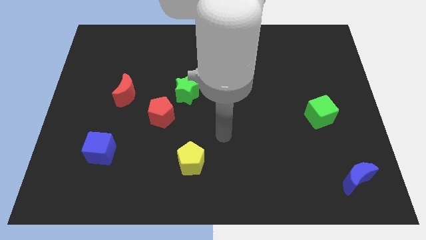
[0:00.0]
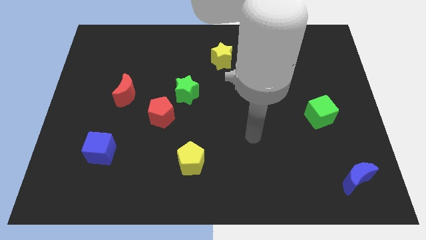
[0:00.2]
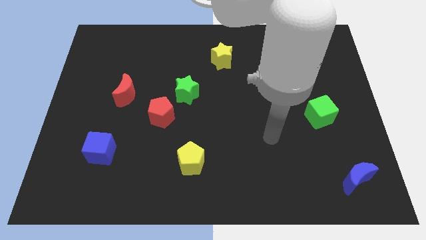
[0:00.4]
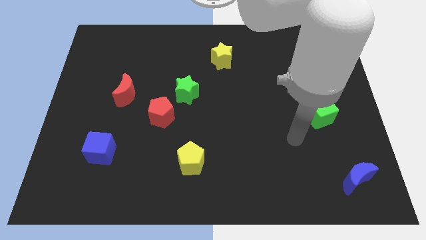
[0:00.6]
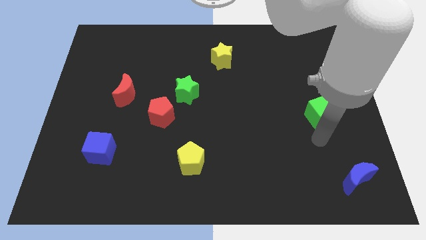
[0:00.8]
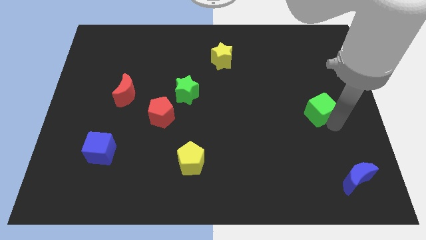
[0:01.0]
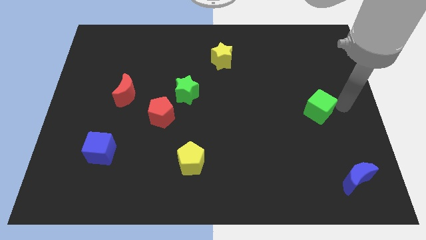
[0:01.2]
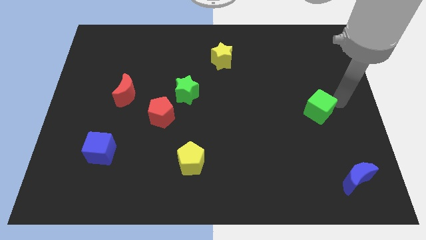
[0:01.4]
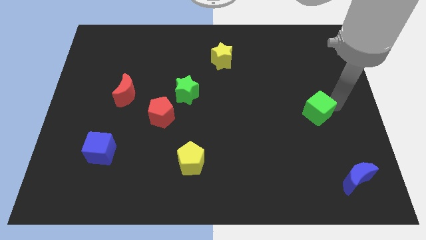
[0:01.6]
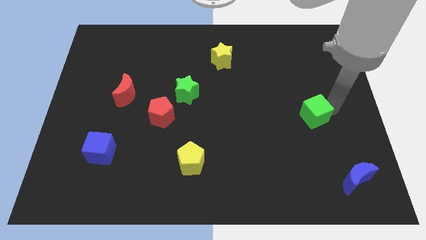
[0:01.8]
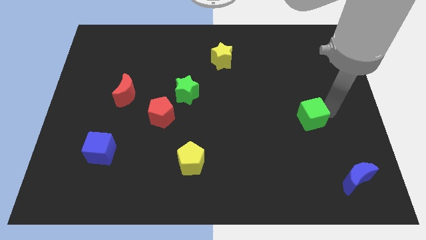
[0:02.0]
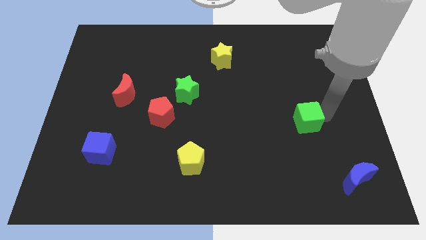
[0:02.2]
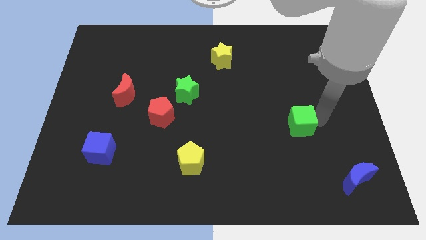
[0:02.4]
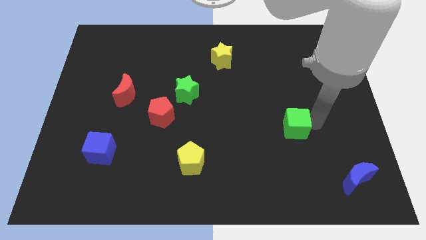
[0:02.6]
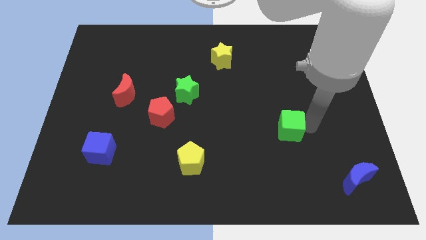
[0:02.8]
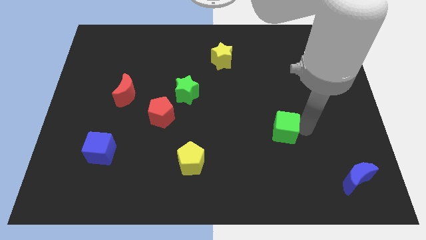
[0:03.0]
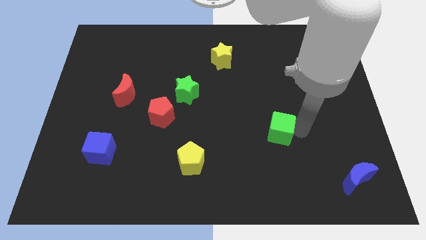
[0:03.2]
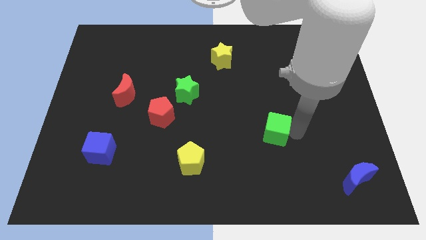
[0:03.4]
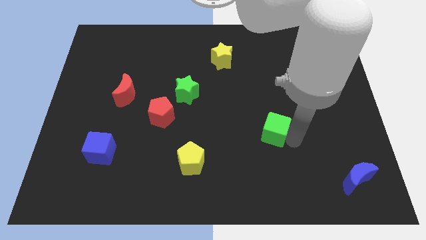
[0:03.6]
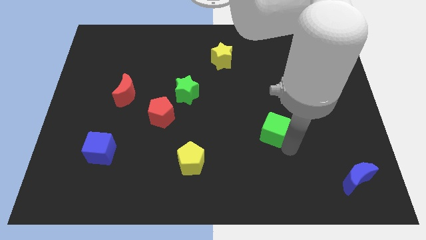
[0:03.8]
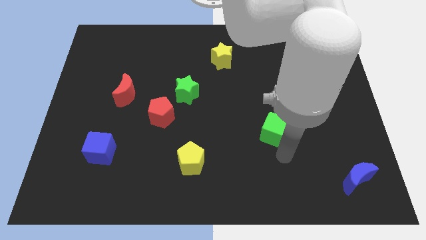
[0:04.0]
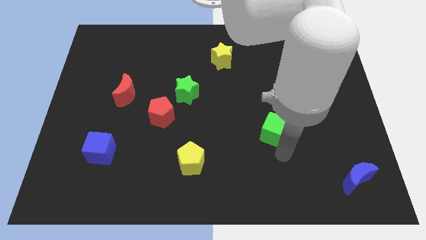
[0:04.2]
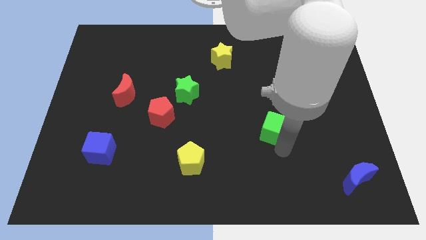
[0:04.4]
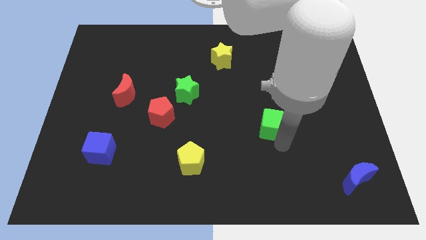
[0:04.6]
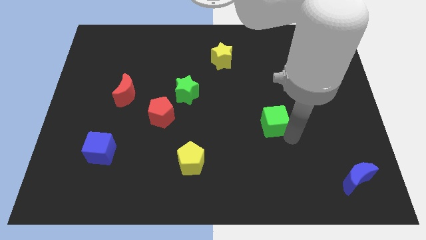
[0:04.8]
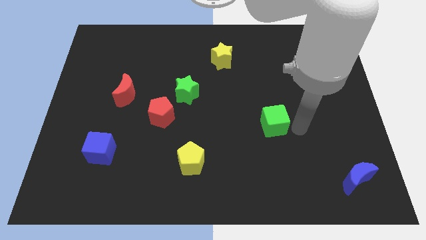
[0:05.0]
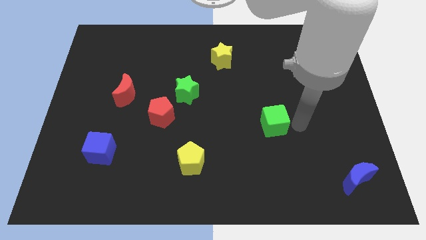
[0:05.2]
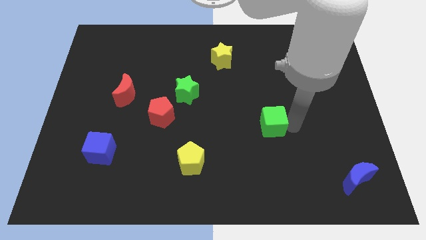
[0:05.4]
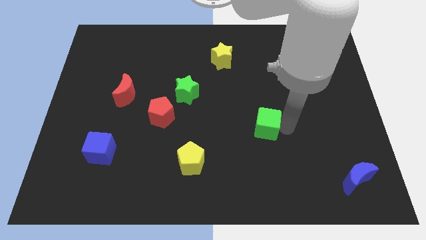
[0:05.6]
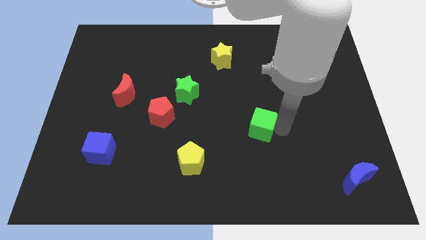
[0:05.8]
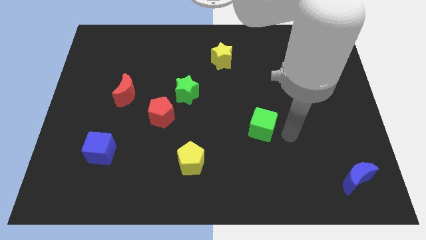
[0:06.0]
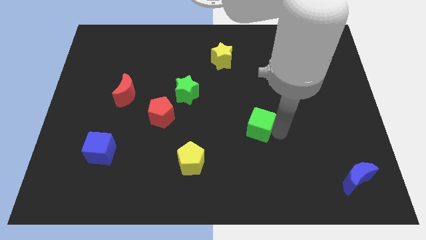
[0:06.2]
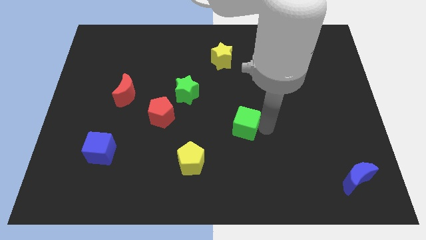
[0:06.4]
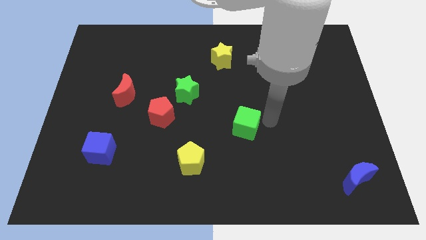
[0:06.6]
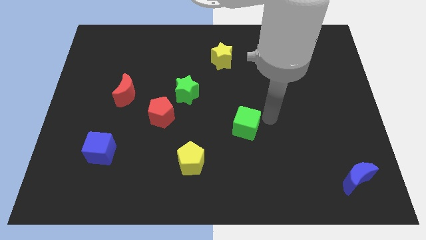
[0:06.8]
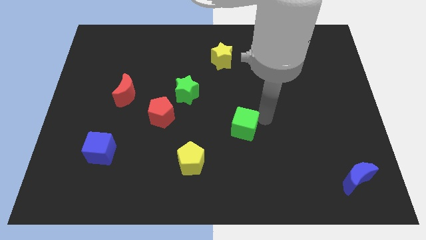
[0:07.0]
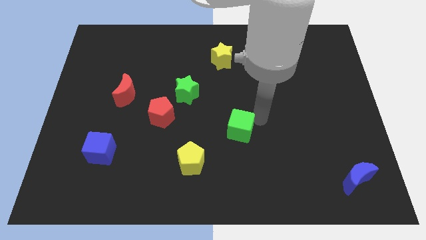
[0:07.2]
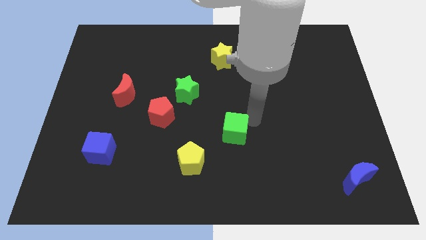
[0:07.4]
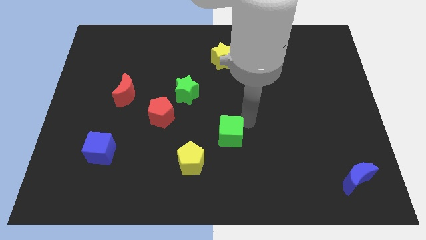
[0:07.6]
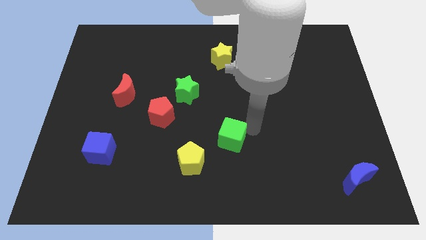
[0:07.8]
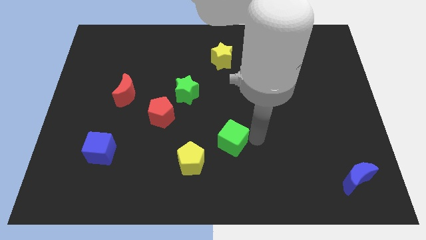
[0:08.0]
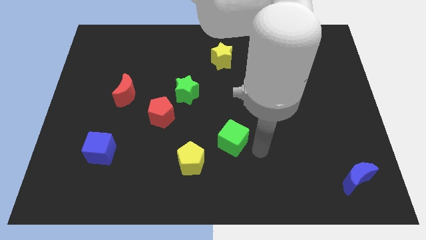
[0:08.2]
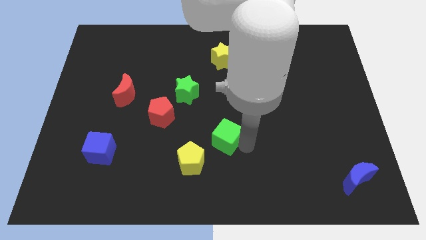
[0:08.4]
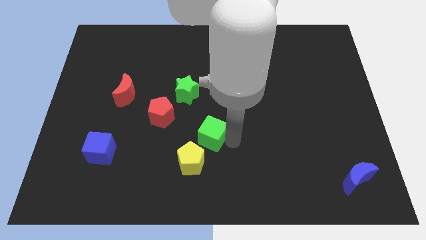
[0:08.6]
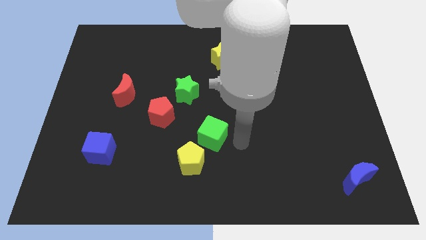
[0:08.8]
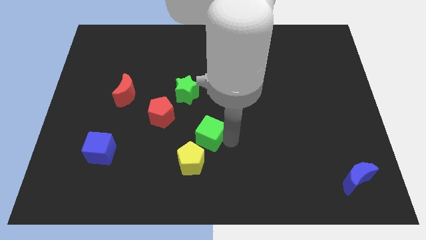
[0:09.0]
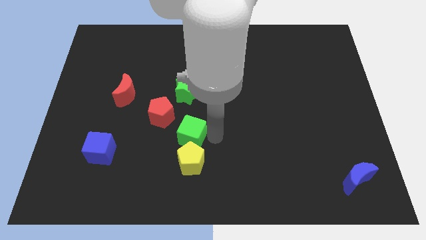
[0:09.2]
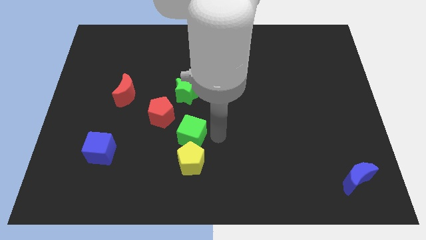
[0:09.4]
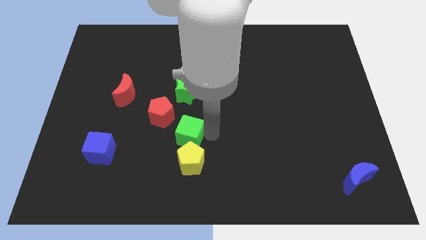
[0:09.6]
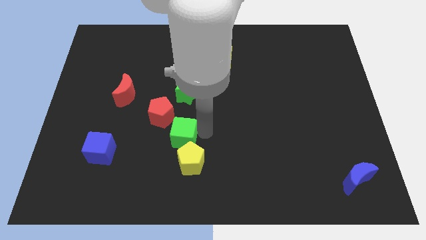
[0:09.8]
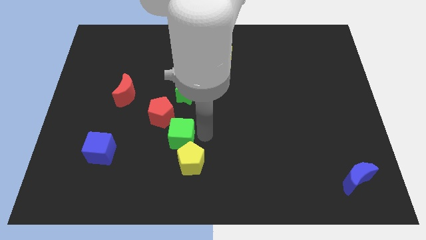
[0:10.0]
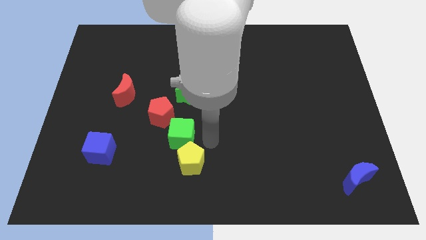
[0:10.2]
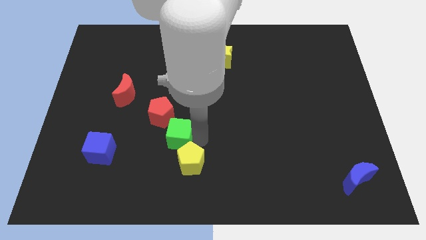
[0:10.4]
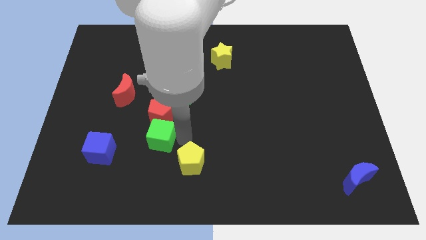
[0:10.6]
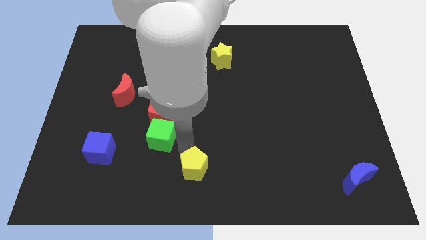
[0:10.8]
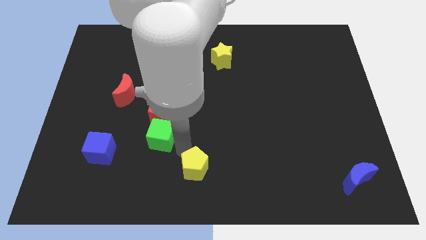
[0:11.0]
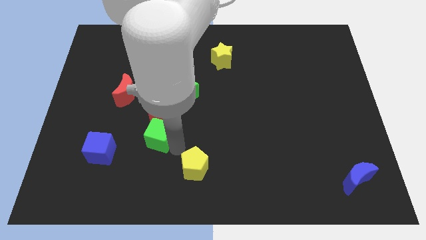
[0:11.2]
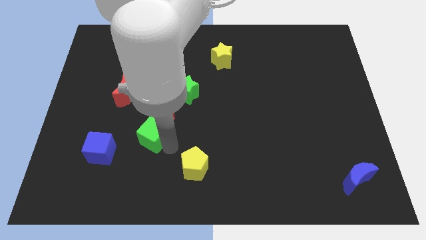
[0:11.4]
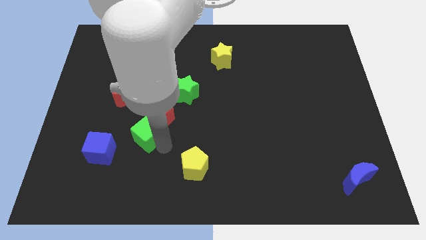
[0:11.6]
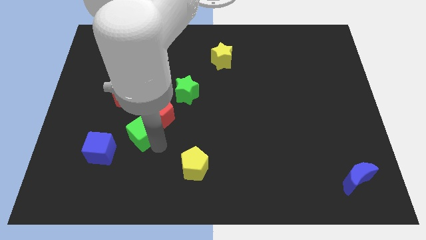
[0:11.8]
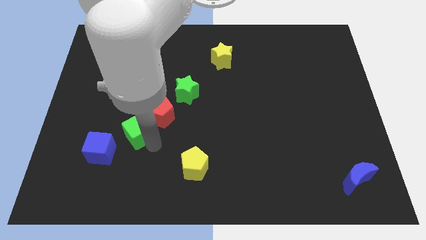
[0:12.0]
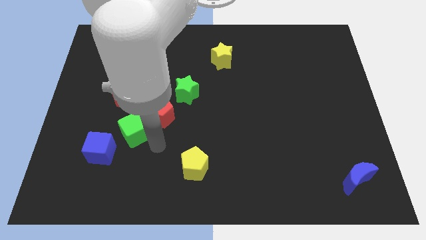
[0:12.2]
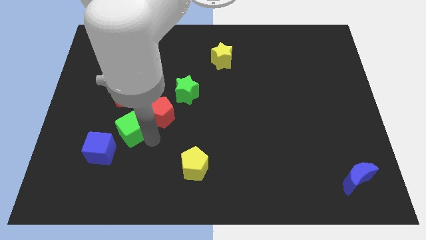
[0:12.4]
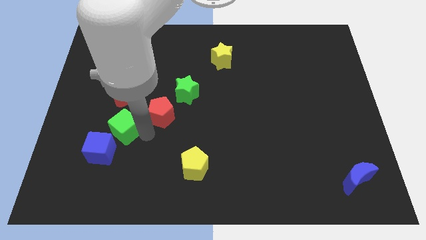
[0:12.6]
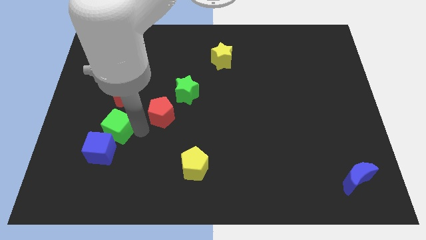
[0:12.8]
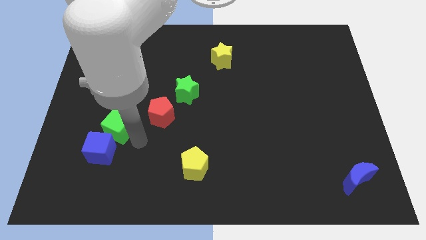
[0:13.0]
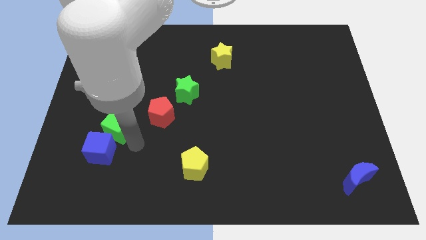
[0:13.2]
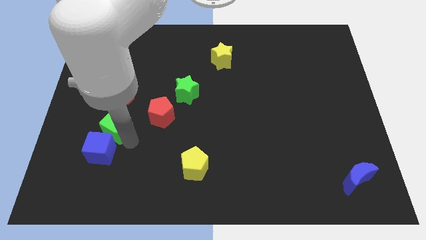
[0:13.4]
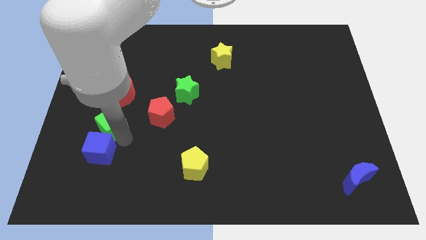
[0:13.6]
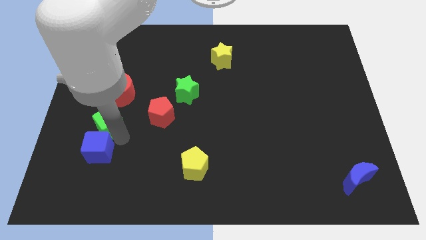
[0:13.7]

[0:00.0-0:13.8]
slide the green cube diagonally down and to the left of the red moon
